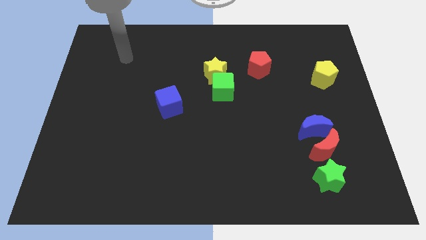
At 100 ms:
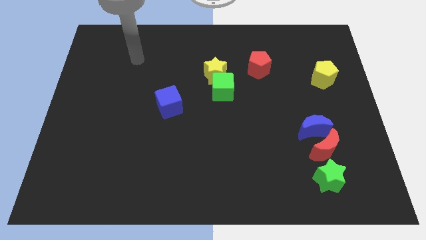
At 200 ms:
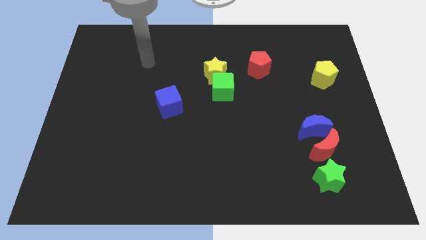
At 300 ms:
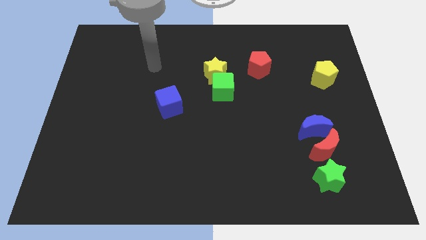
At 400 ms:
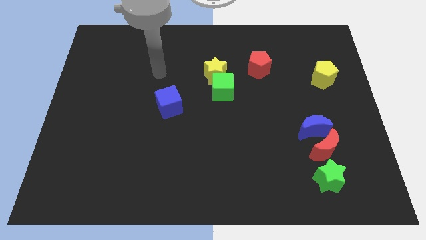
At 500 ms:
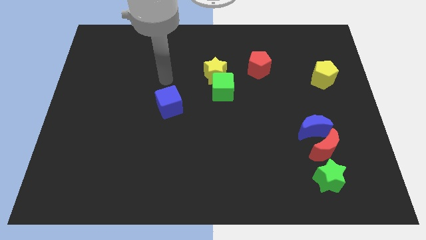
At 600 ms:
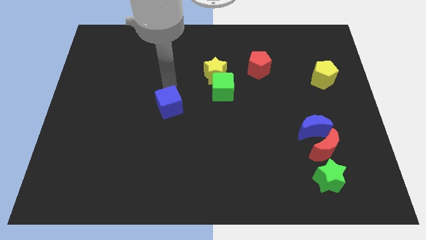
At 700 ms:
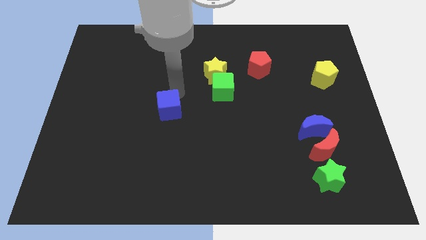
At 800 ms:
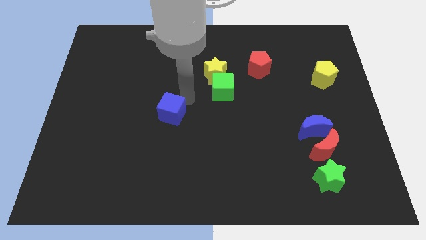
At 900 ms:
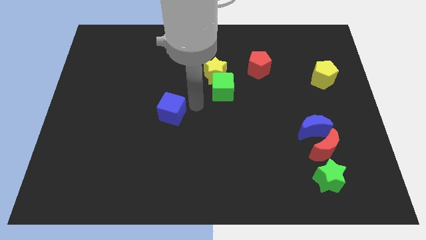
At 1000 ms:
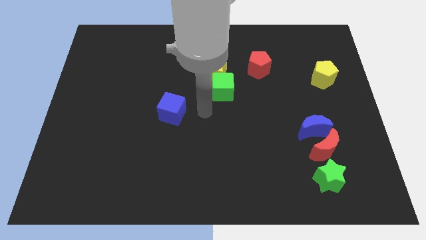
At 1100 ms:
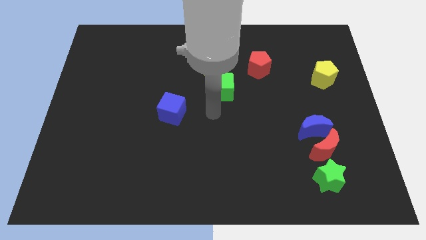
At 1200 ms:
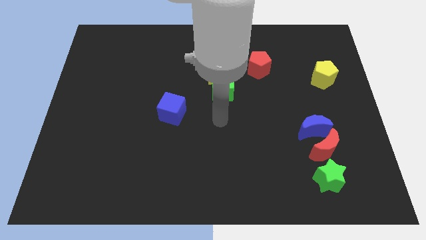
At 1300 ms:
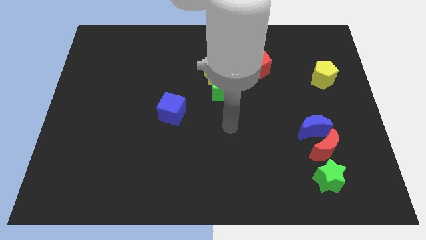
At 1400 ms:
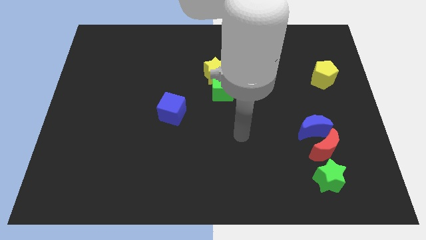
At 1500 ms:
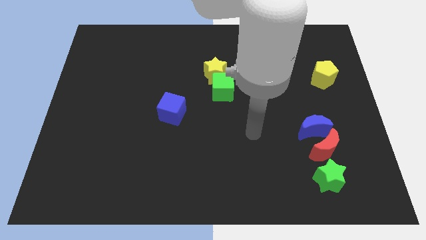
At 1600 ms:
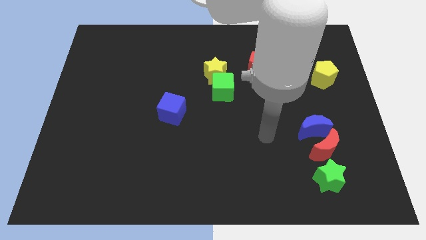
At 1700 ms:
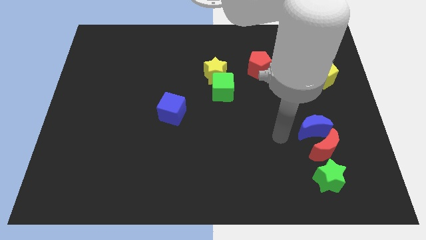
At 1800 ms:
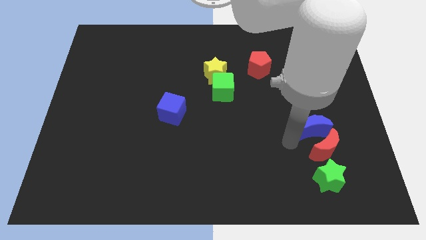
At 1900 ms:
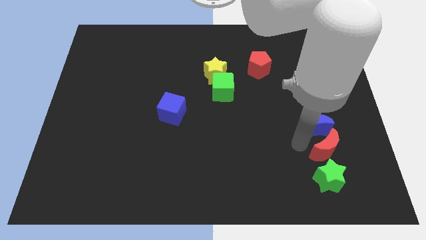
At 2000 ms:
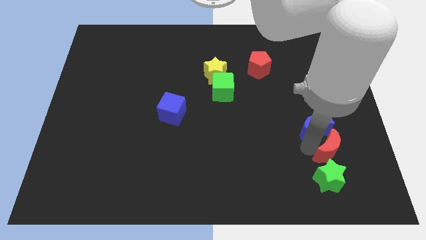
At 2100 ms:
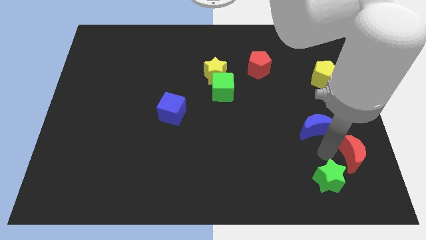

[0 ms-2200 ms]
move the blue moon away from the red moon

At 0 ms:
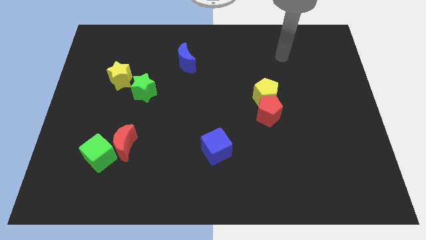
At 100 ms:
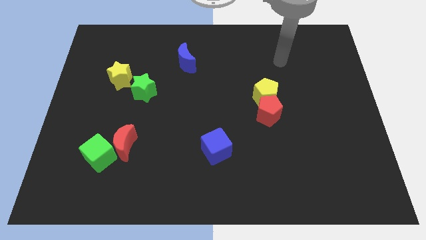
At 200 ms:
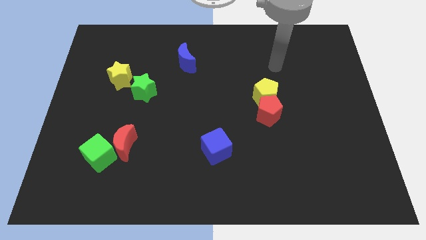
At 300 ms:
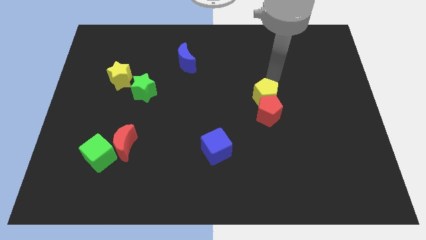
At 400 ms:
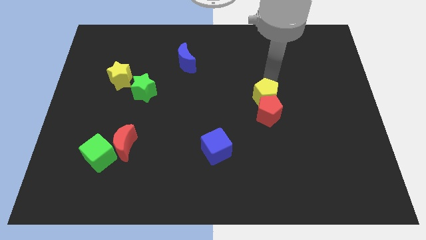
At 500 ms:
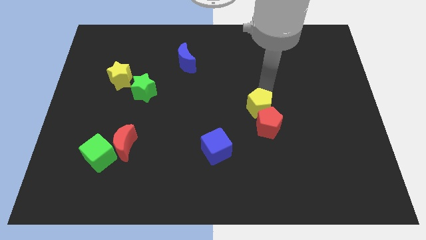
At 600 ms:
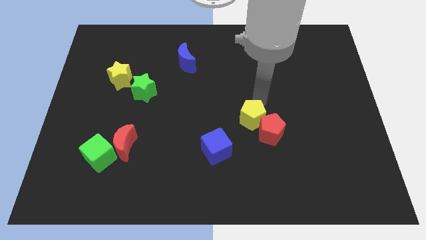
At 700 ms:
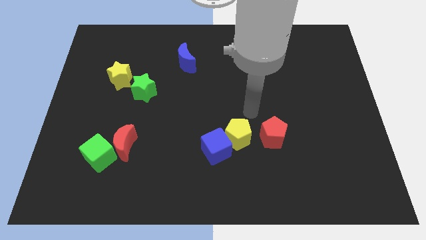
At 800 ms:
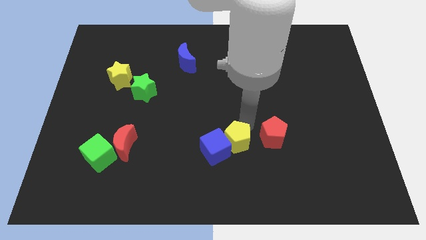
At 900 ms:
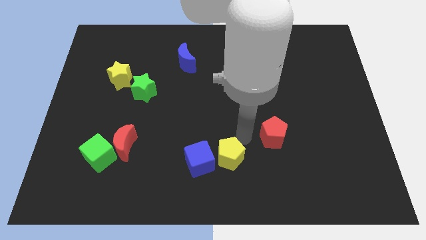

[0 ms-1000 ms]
move the red pentagon away from the yellow pentagon

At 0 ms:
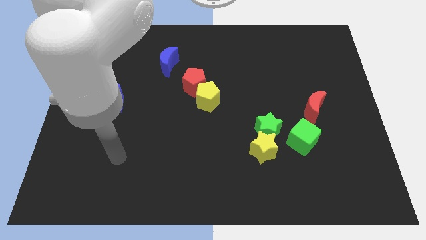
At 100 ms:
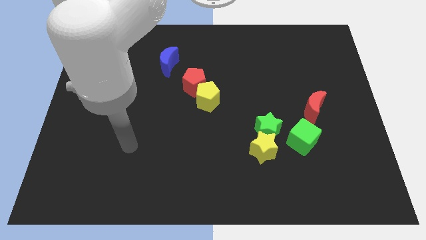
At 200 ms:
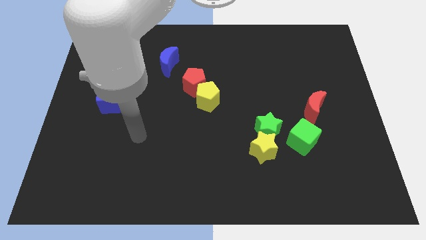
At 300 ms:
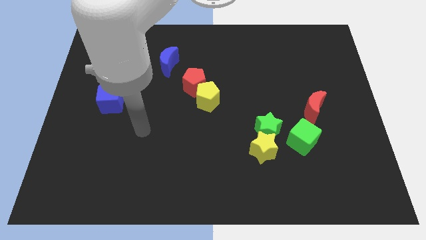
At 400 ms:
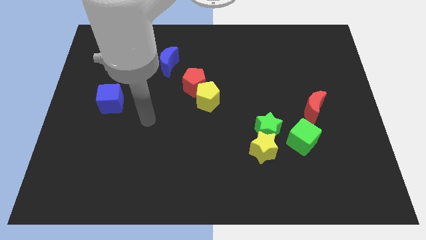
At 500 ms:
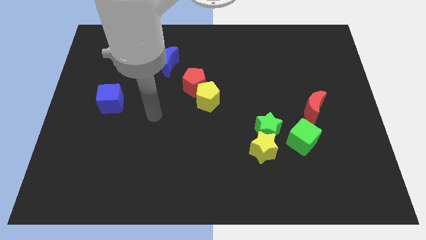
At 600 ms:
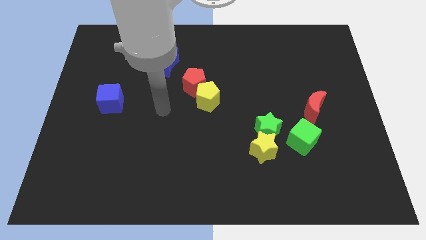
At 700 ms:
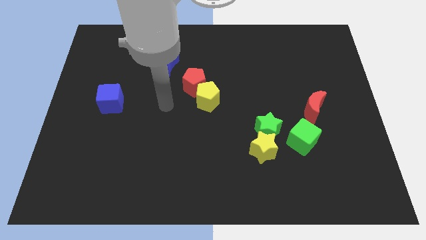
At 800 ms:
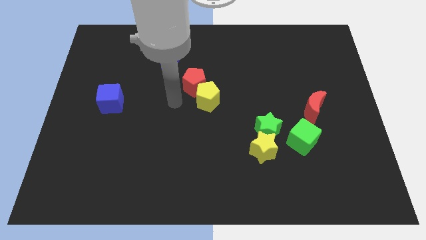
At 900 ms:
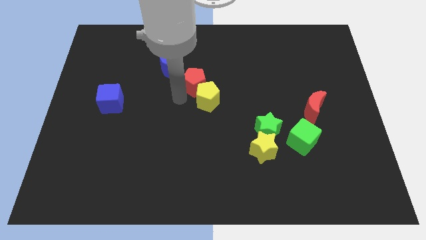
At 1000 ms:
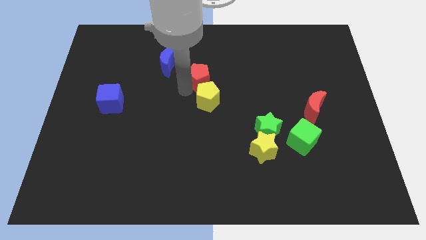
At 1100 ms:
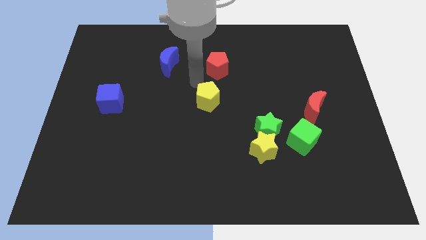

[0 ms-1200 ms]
separate the yellow pentagon from the red pentagon

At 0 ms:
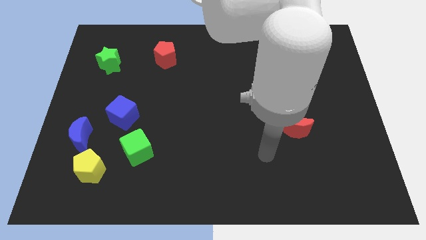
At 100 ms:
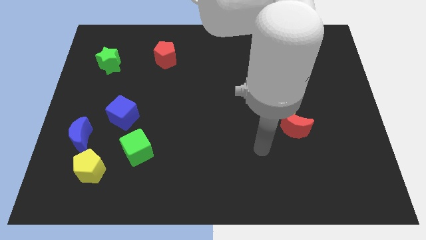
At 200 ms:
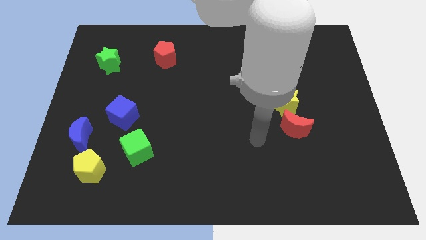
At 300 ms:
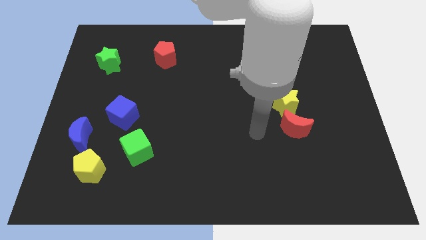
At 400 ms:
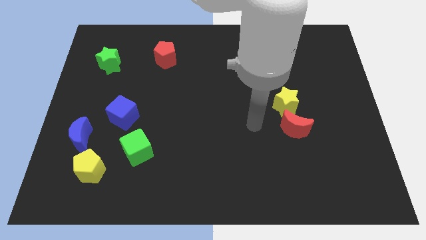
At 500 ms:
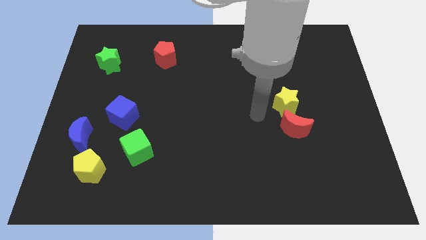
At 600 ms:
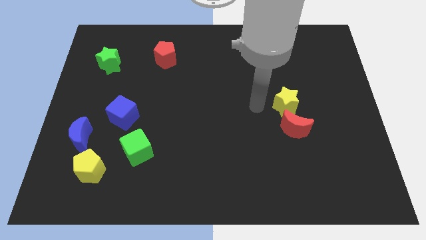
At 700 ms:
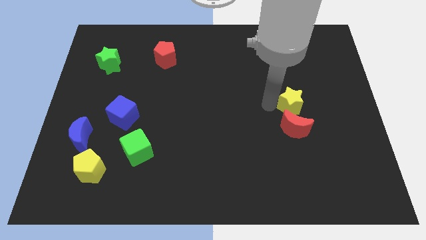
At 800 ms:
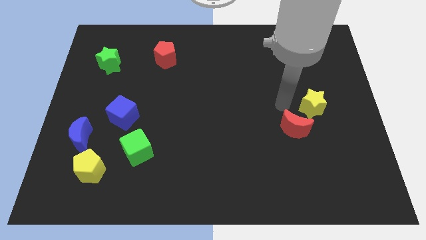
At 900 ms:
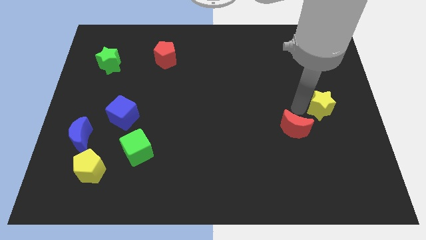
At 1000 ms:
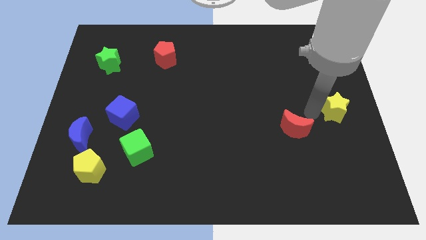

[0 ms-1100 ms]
move the red moon away from the yellow star

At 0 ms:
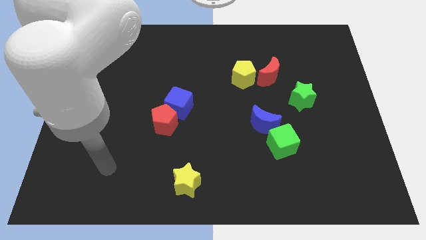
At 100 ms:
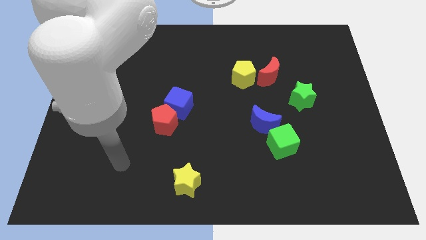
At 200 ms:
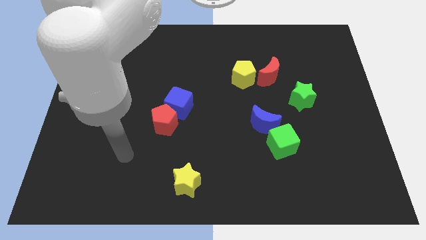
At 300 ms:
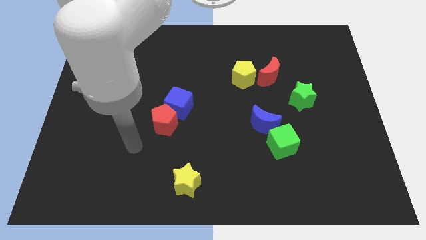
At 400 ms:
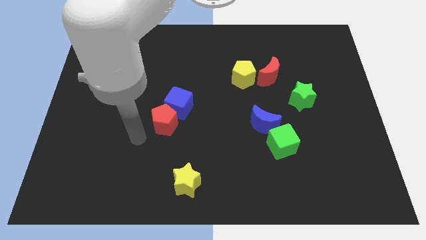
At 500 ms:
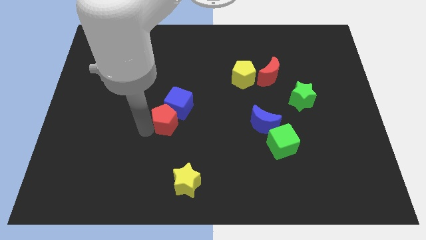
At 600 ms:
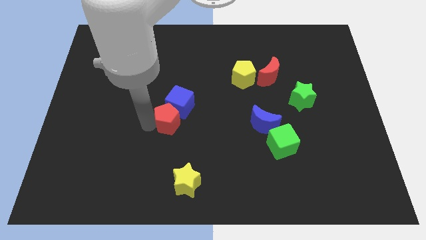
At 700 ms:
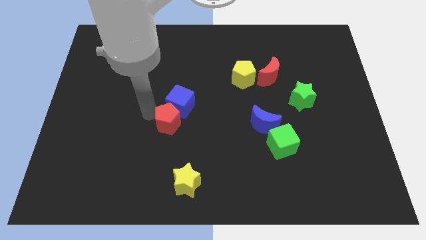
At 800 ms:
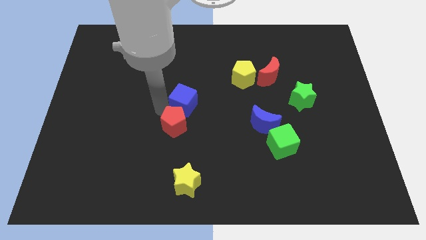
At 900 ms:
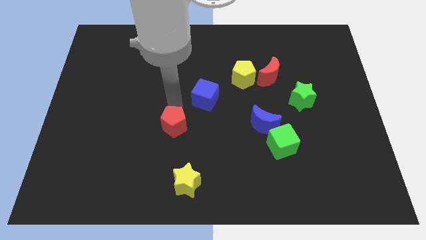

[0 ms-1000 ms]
pull the red pentagon apart from the blue cube

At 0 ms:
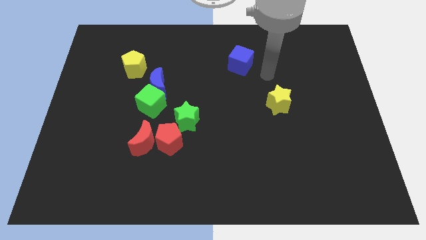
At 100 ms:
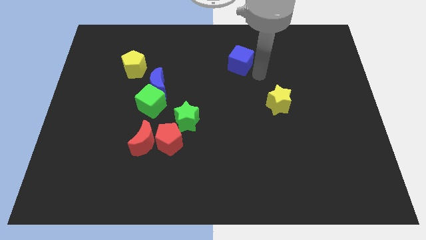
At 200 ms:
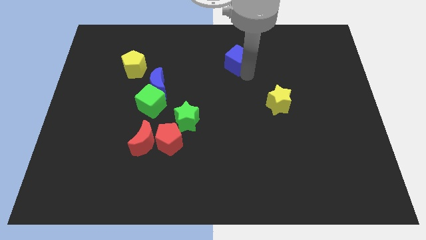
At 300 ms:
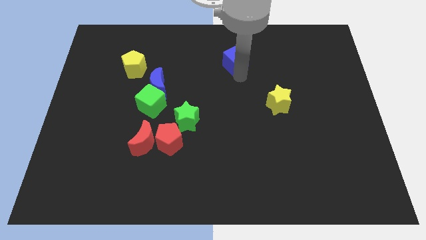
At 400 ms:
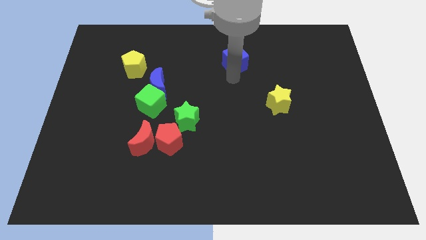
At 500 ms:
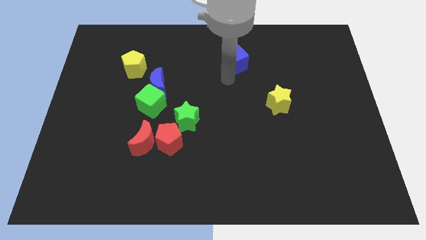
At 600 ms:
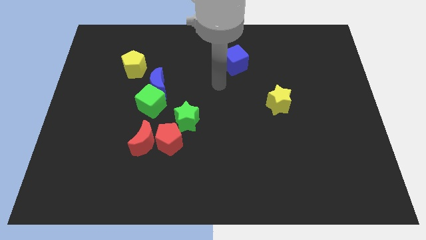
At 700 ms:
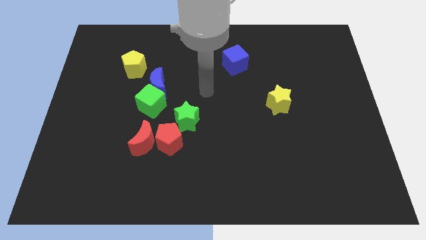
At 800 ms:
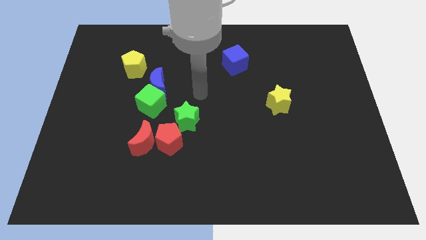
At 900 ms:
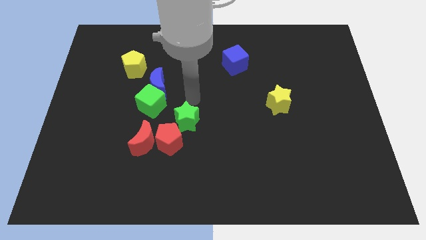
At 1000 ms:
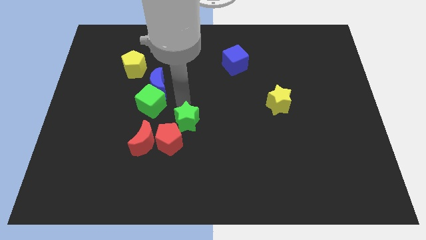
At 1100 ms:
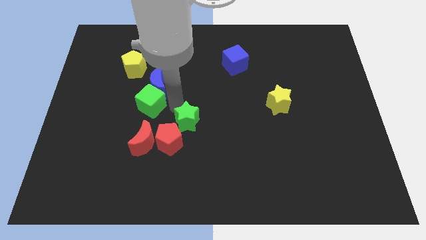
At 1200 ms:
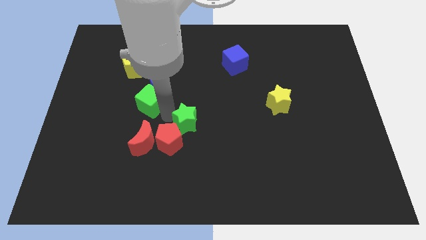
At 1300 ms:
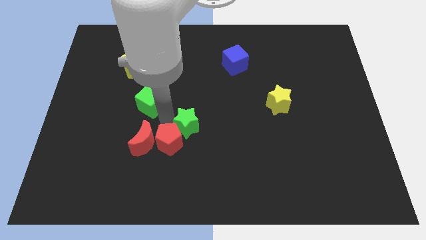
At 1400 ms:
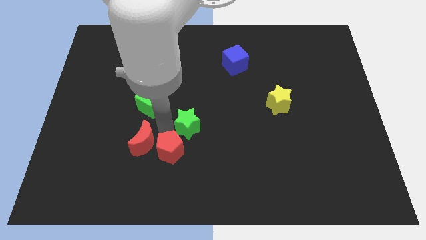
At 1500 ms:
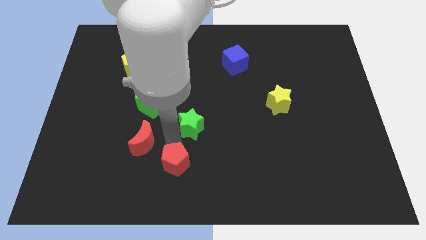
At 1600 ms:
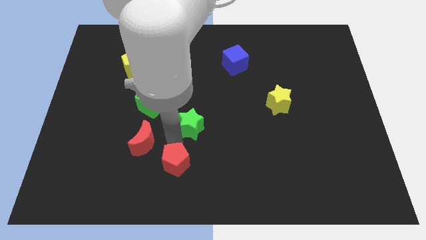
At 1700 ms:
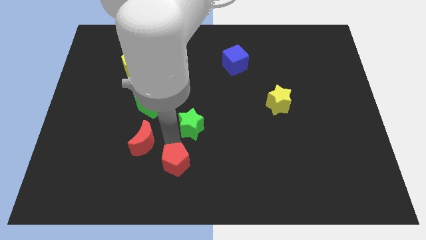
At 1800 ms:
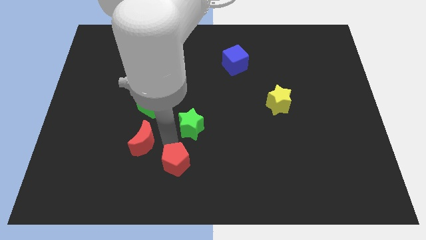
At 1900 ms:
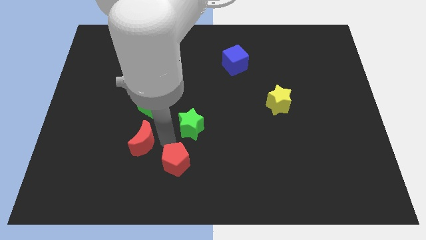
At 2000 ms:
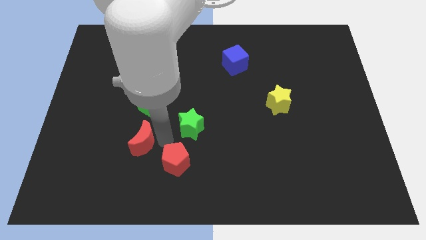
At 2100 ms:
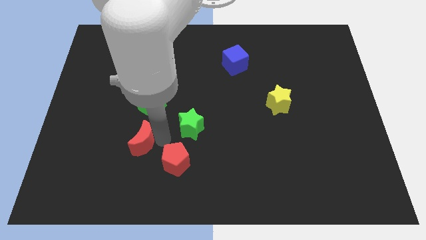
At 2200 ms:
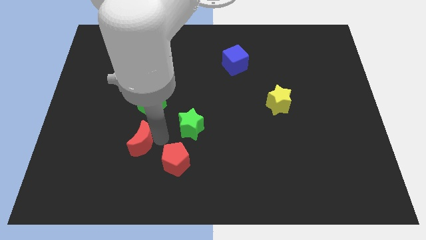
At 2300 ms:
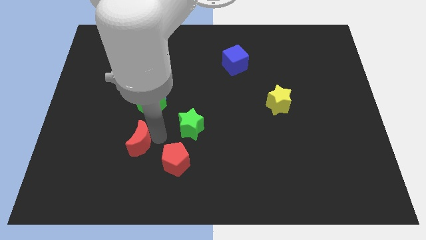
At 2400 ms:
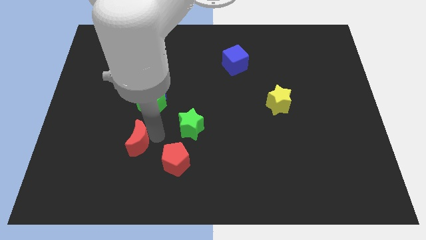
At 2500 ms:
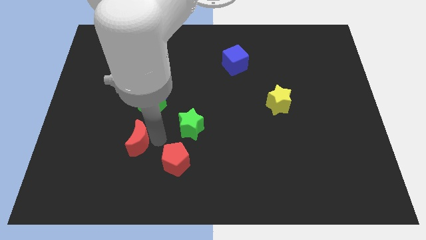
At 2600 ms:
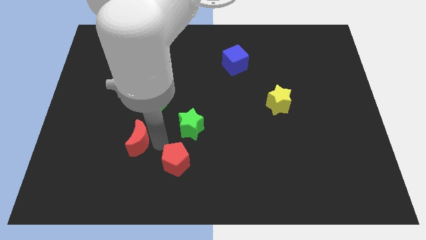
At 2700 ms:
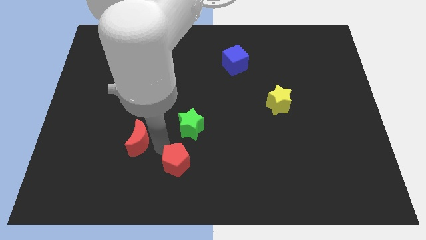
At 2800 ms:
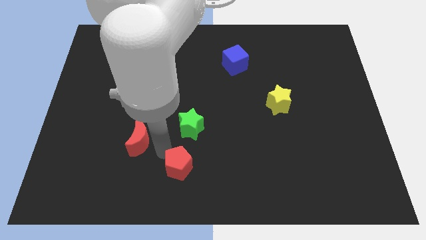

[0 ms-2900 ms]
pull the red moon apart from the red pentagon
